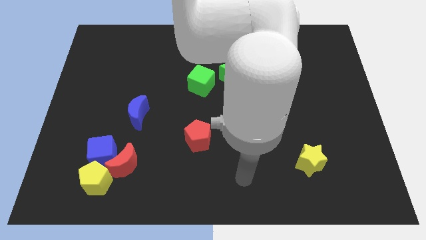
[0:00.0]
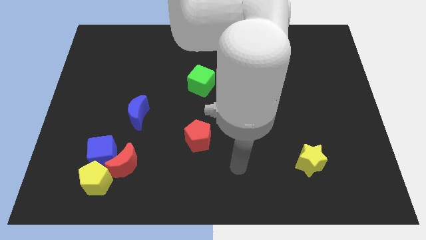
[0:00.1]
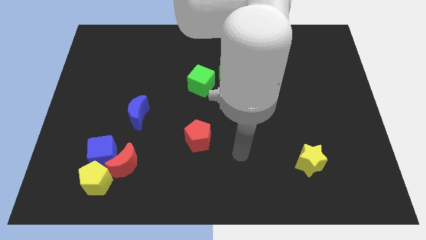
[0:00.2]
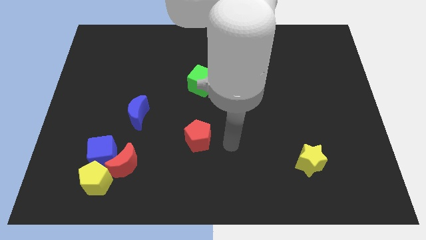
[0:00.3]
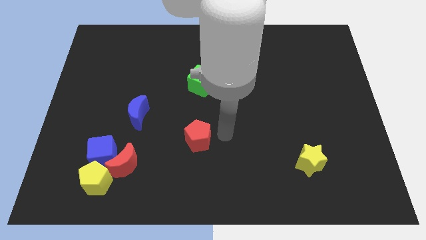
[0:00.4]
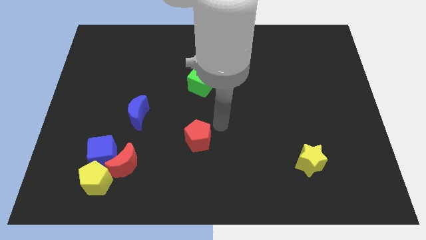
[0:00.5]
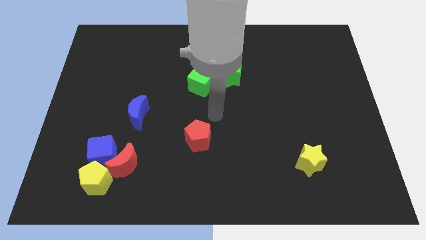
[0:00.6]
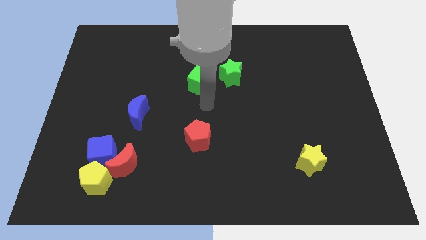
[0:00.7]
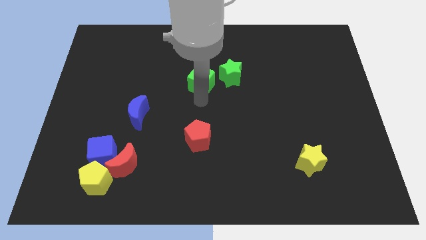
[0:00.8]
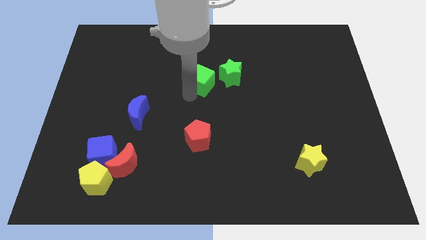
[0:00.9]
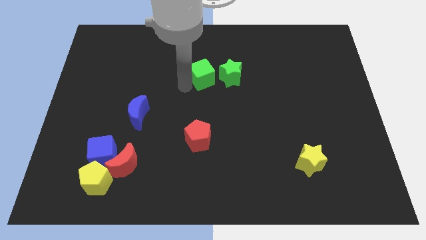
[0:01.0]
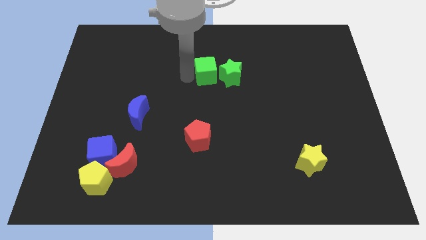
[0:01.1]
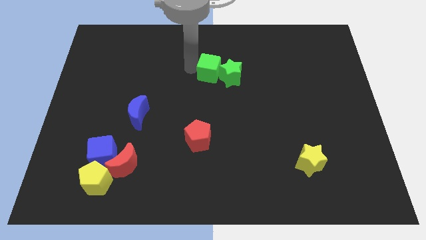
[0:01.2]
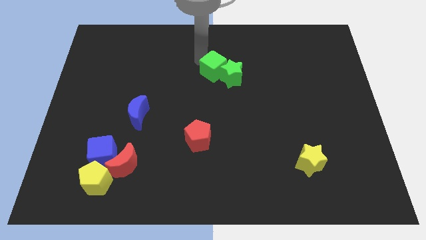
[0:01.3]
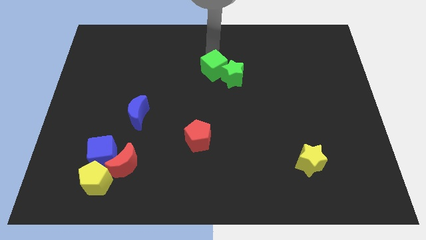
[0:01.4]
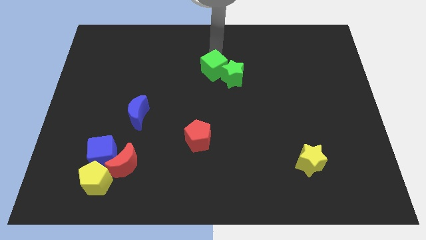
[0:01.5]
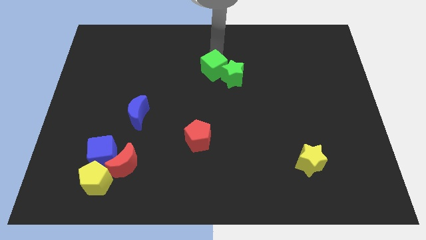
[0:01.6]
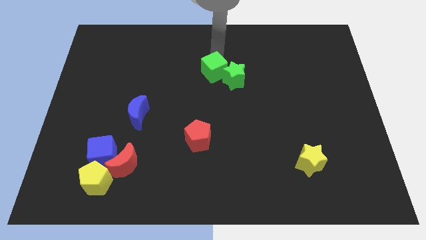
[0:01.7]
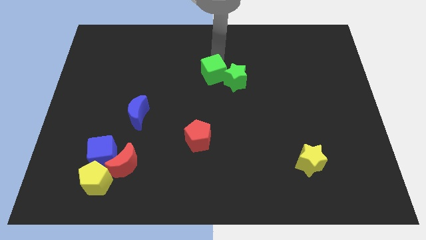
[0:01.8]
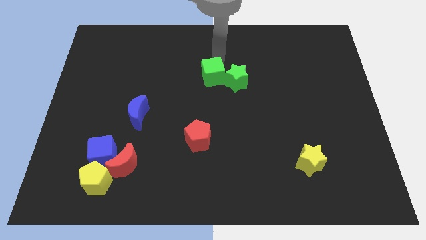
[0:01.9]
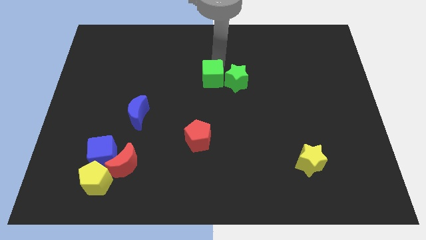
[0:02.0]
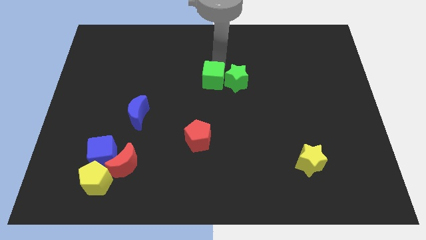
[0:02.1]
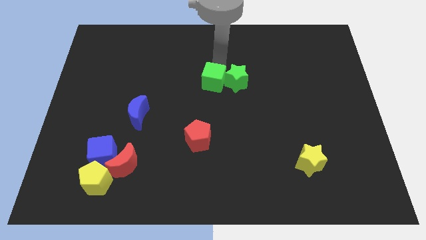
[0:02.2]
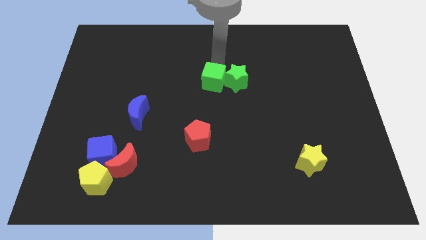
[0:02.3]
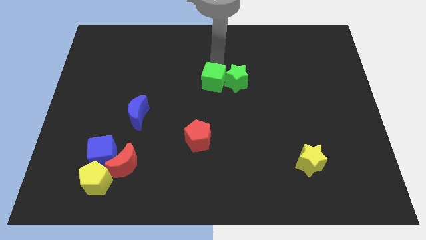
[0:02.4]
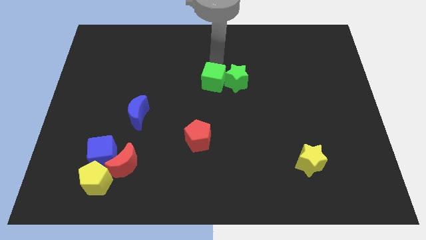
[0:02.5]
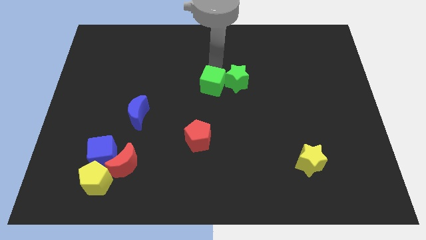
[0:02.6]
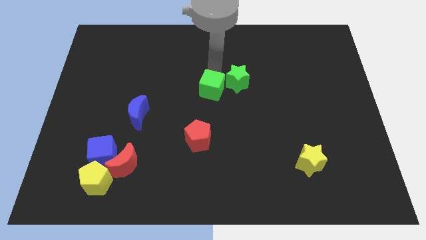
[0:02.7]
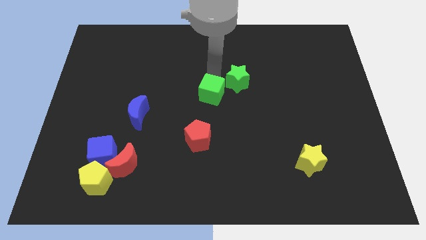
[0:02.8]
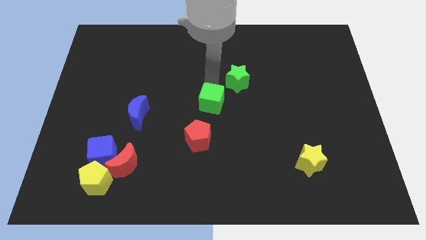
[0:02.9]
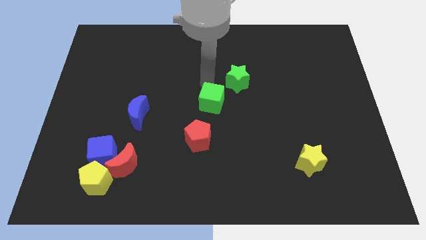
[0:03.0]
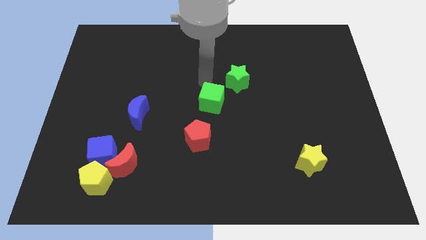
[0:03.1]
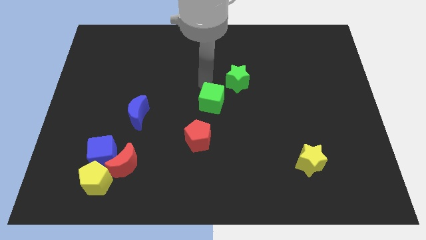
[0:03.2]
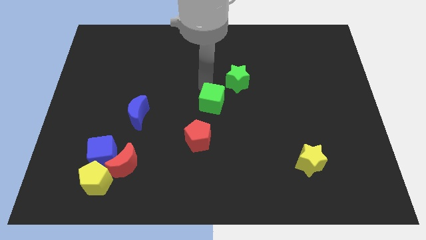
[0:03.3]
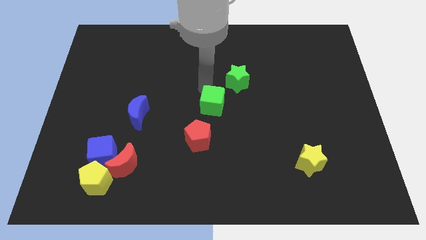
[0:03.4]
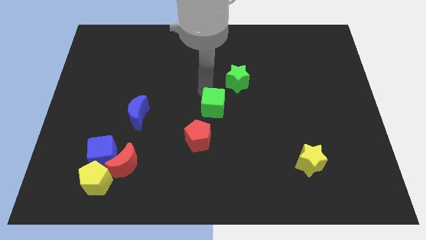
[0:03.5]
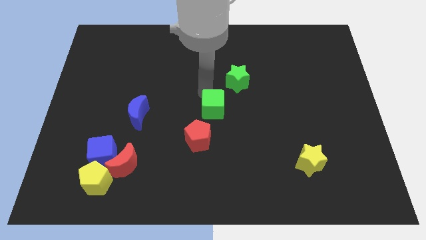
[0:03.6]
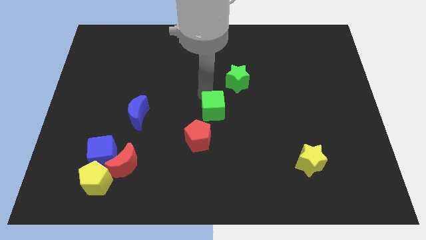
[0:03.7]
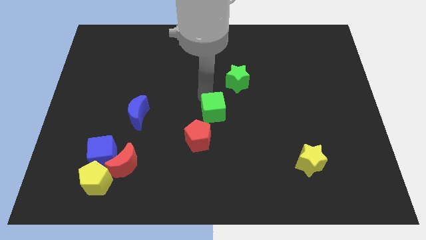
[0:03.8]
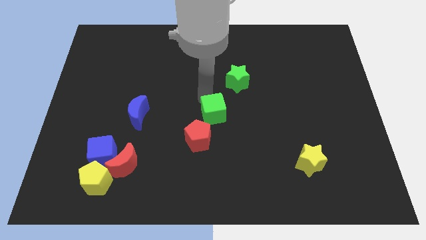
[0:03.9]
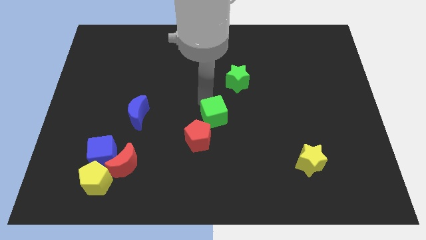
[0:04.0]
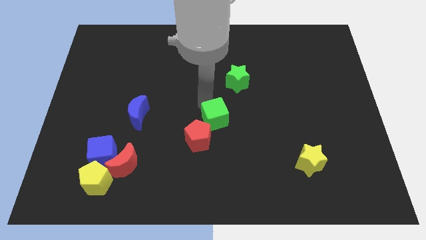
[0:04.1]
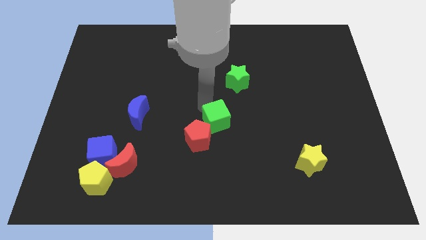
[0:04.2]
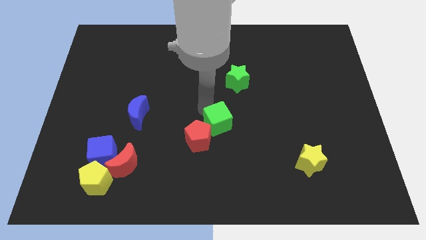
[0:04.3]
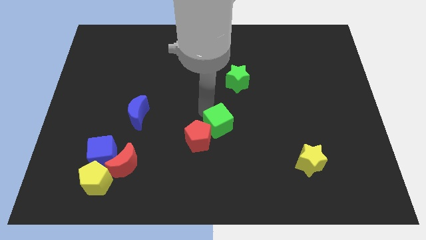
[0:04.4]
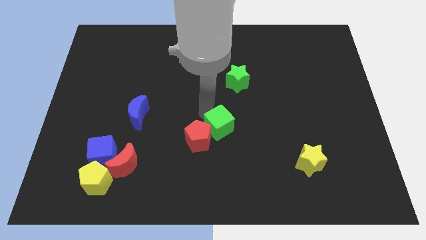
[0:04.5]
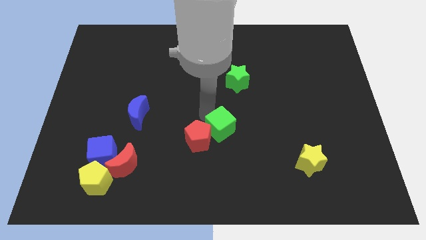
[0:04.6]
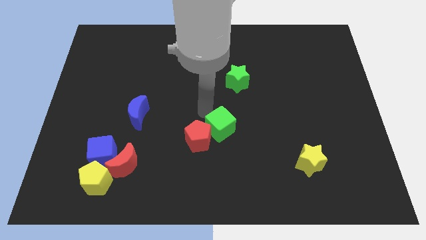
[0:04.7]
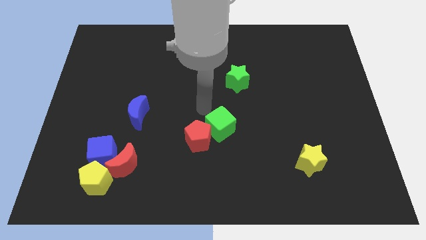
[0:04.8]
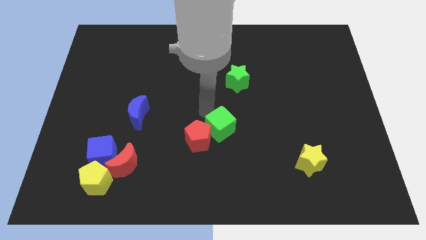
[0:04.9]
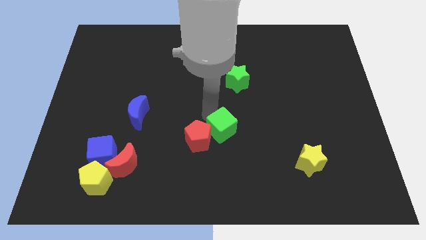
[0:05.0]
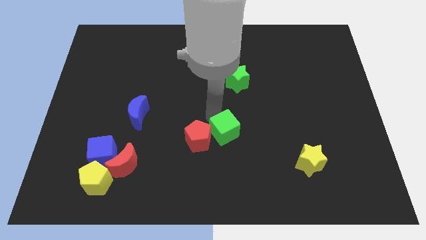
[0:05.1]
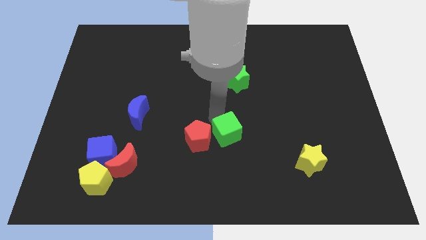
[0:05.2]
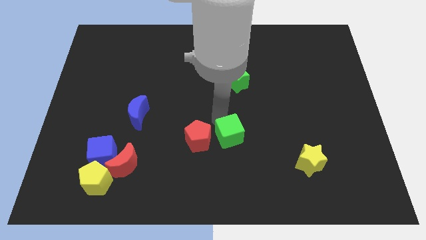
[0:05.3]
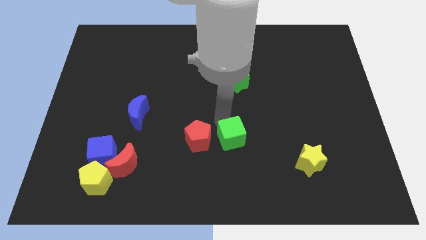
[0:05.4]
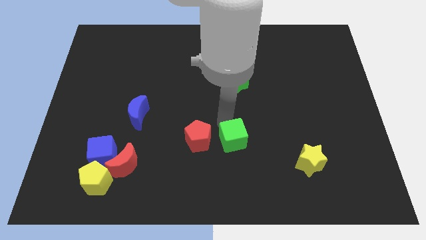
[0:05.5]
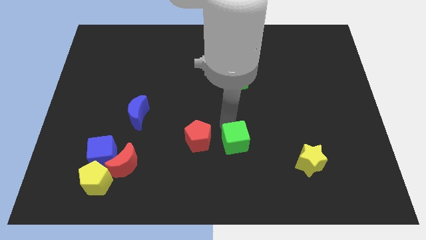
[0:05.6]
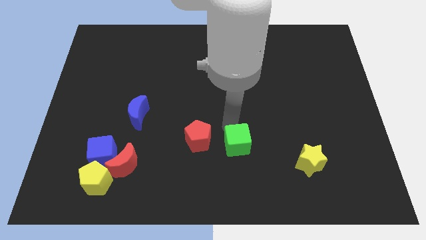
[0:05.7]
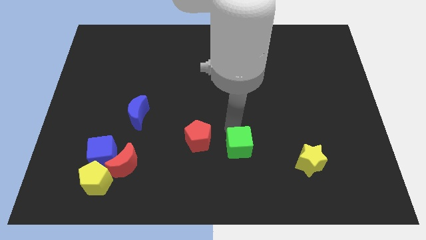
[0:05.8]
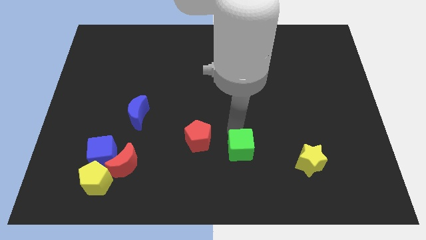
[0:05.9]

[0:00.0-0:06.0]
move the green cube diagonally down and to the right of the red pentagon

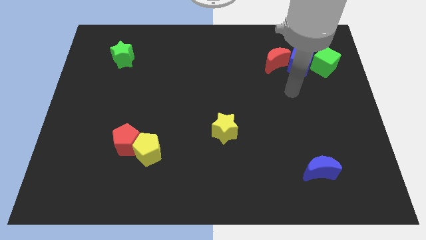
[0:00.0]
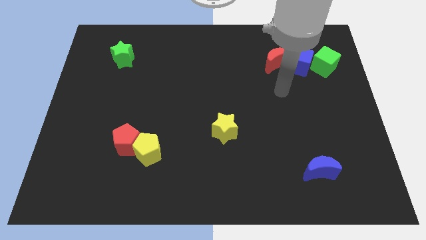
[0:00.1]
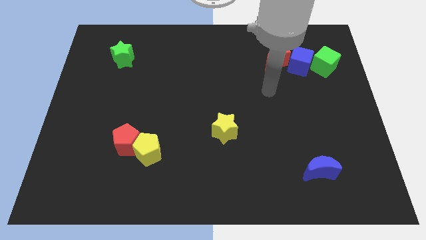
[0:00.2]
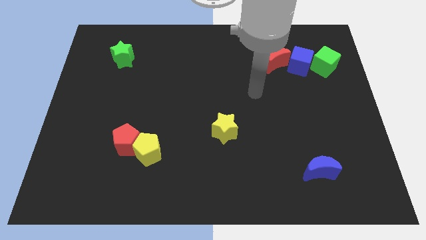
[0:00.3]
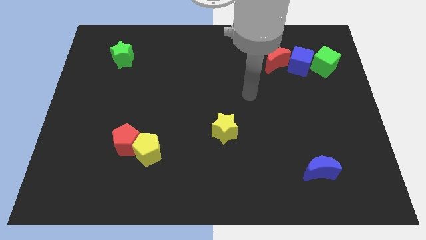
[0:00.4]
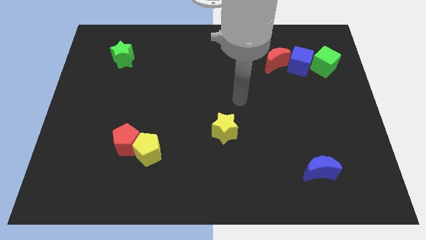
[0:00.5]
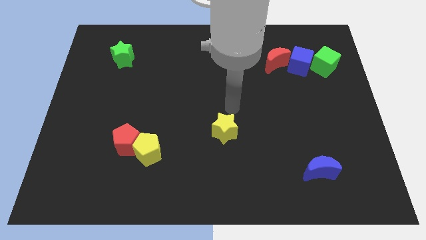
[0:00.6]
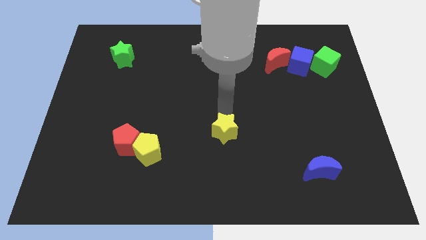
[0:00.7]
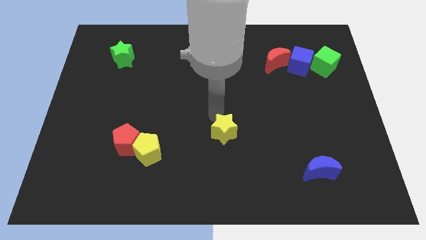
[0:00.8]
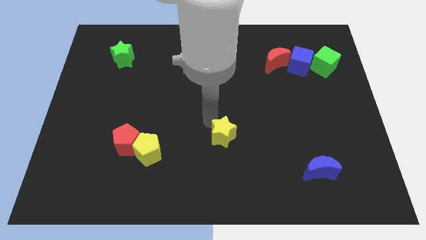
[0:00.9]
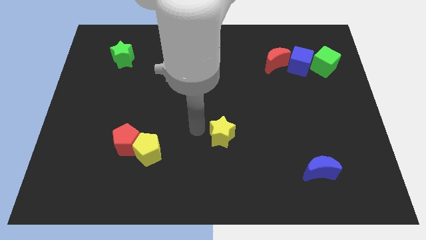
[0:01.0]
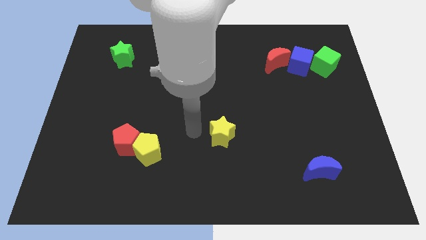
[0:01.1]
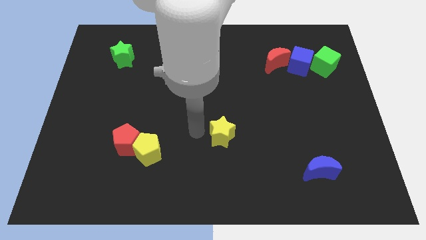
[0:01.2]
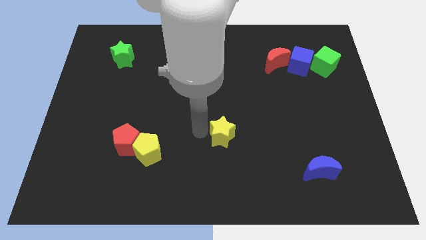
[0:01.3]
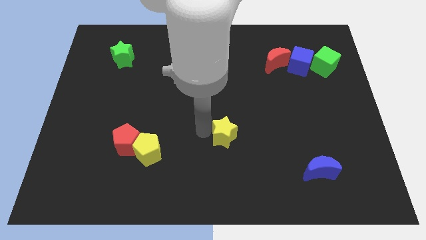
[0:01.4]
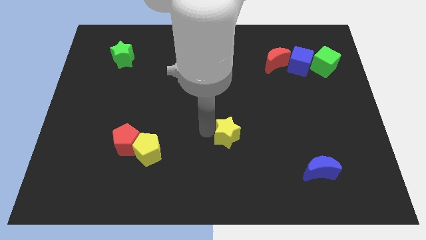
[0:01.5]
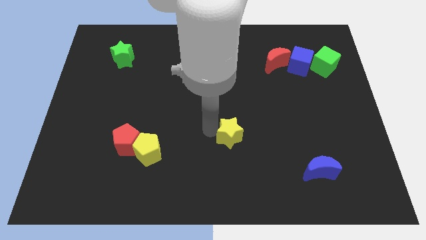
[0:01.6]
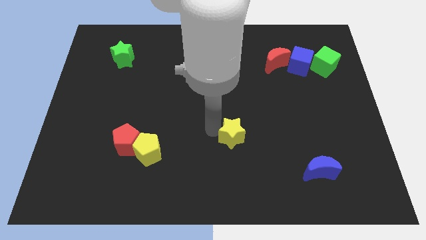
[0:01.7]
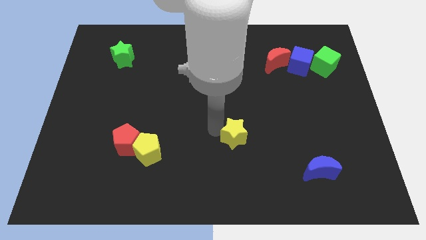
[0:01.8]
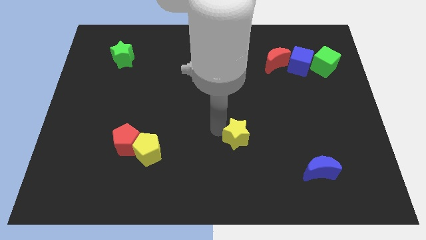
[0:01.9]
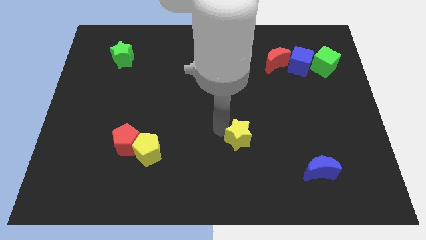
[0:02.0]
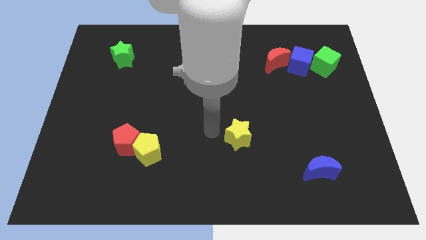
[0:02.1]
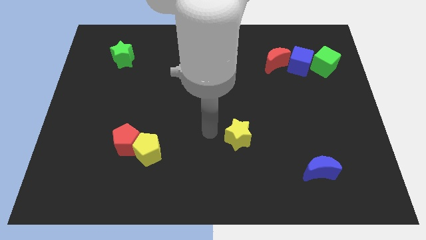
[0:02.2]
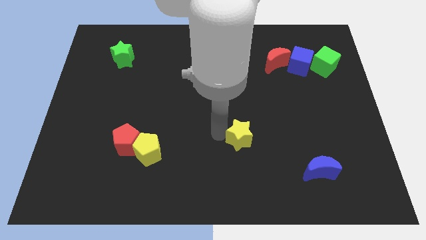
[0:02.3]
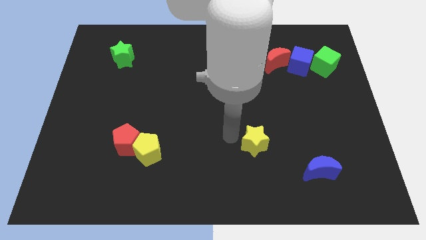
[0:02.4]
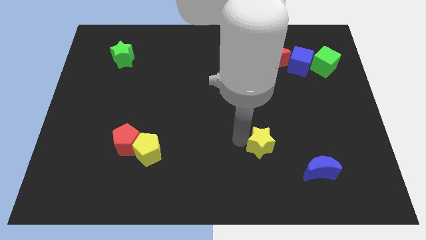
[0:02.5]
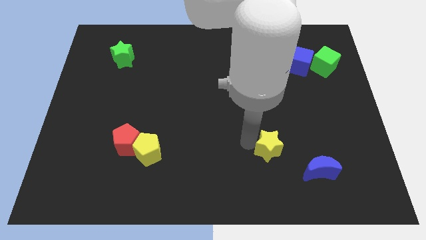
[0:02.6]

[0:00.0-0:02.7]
move the yellow star to the top left of the blue moon
